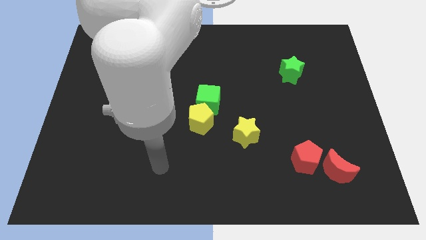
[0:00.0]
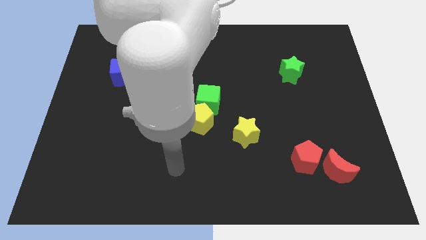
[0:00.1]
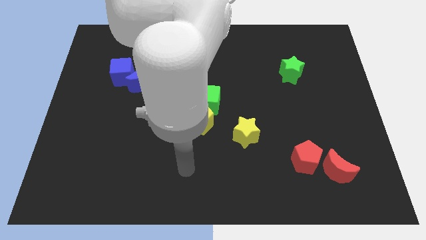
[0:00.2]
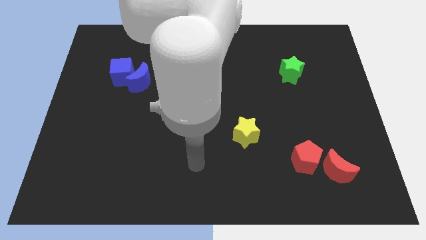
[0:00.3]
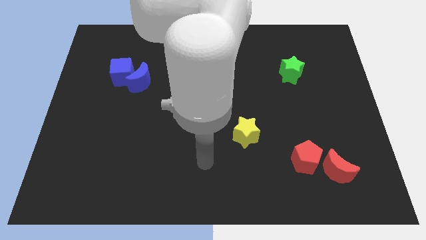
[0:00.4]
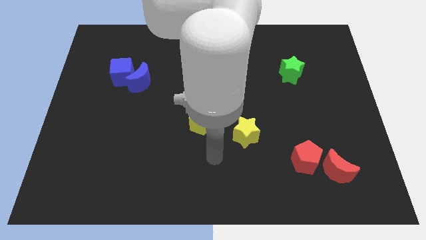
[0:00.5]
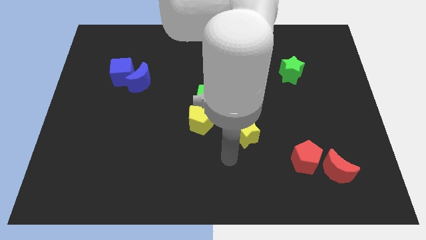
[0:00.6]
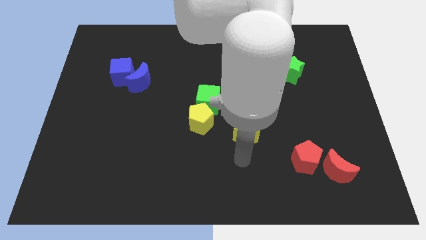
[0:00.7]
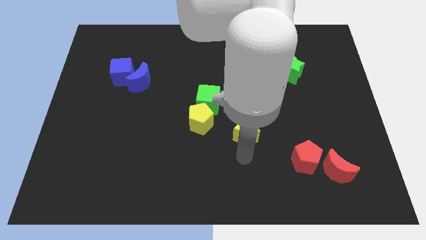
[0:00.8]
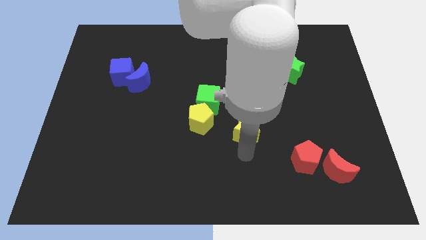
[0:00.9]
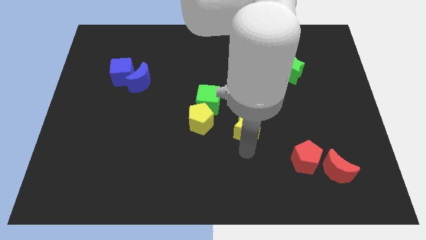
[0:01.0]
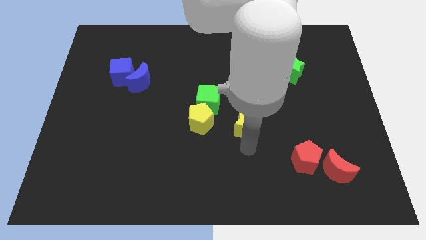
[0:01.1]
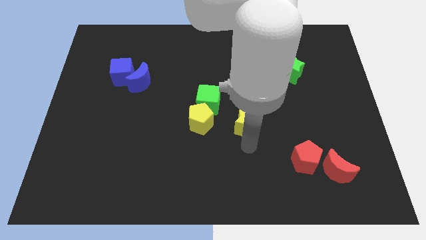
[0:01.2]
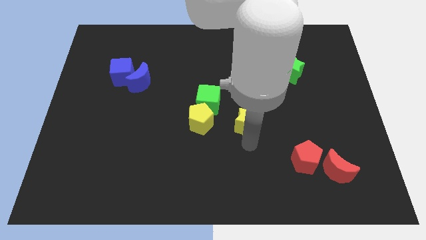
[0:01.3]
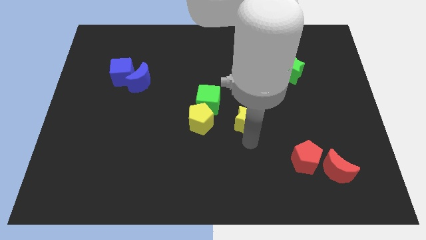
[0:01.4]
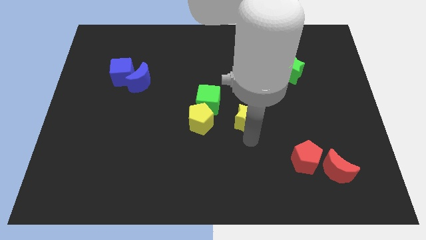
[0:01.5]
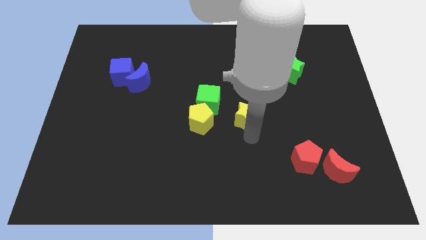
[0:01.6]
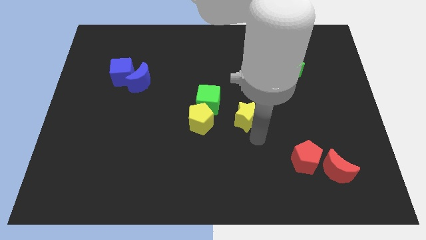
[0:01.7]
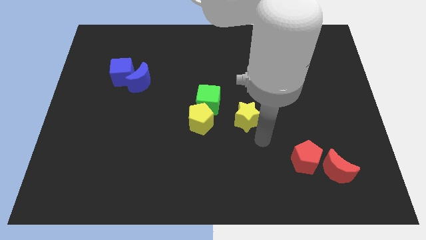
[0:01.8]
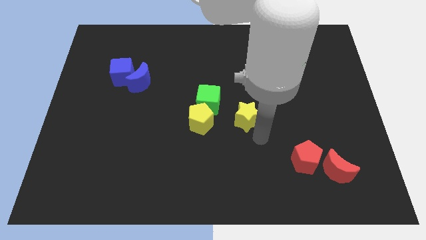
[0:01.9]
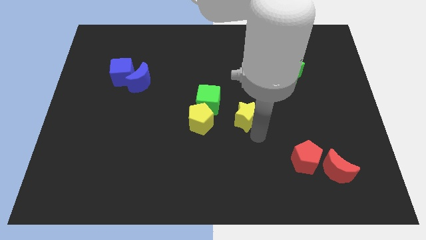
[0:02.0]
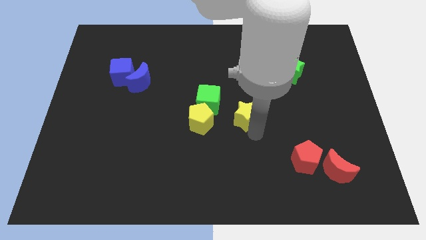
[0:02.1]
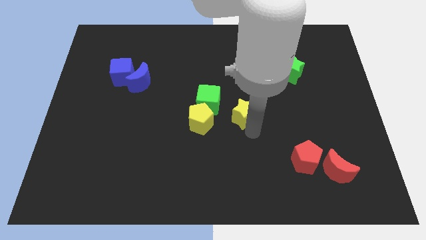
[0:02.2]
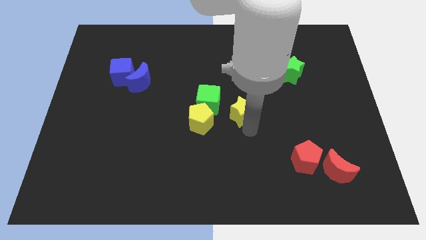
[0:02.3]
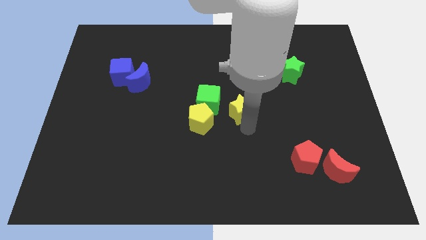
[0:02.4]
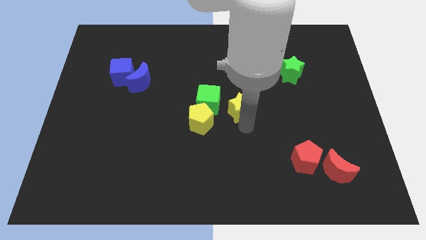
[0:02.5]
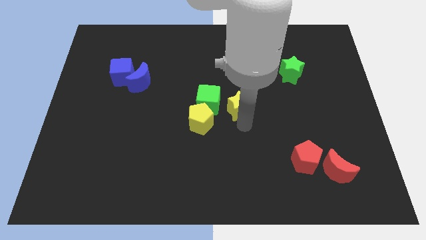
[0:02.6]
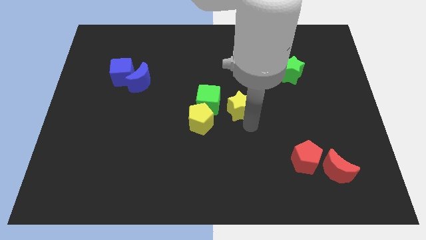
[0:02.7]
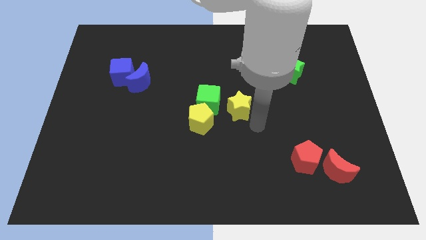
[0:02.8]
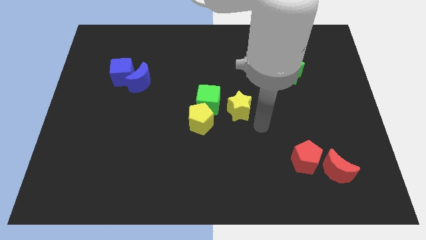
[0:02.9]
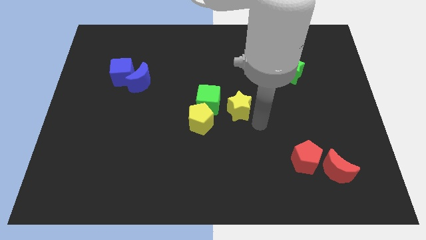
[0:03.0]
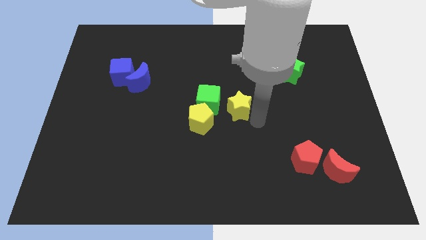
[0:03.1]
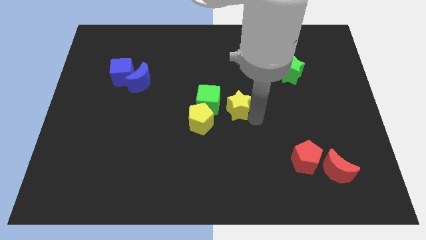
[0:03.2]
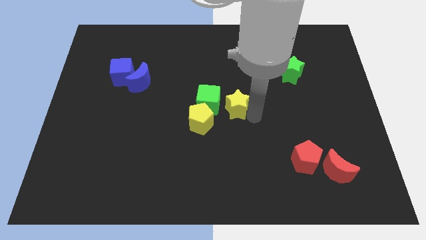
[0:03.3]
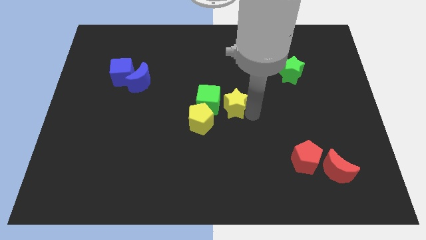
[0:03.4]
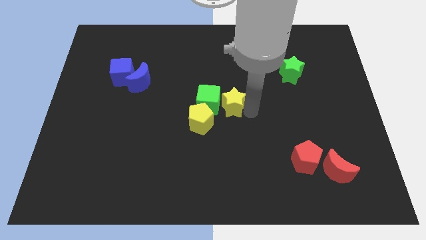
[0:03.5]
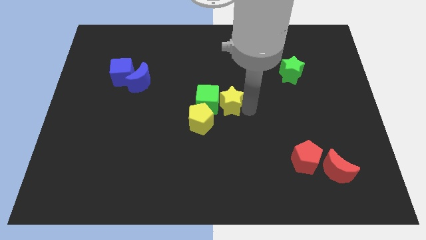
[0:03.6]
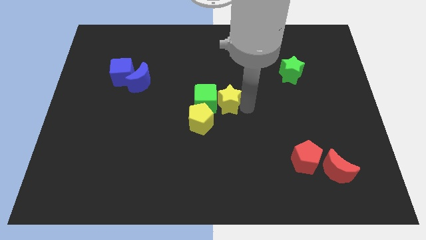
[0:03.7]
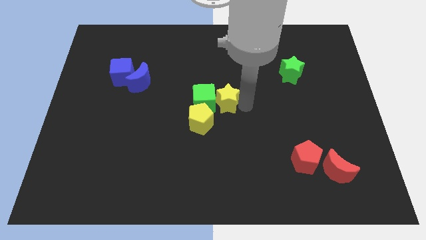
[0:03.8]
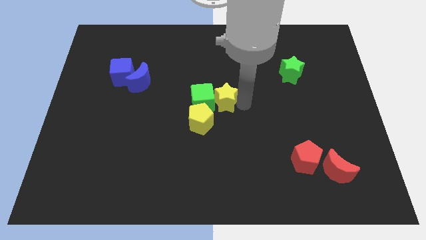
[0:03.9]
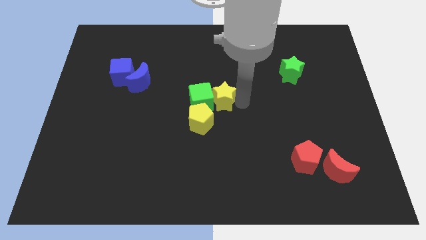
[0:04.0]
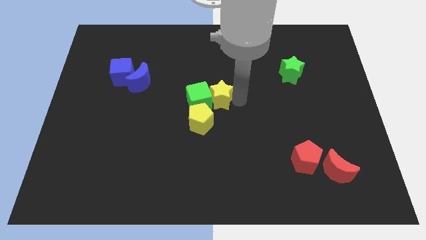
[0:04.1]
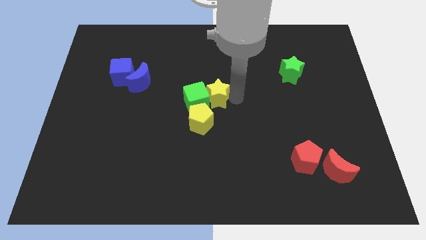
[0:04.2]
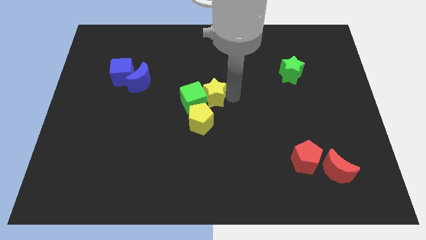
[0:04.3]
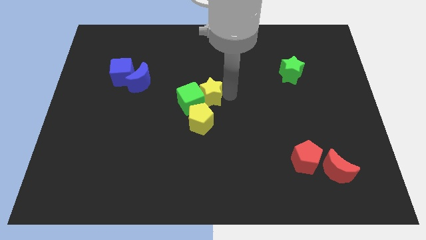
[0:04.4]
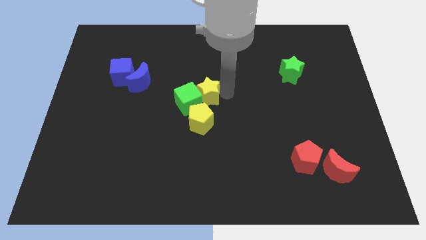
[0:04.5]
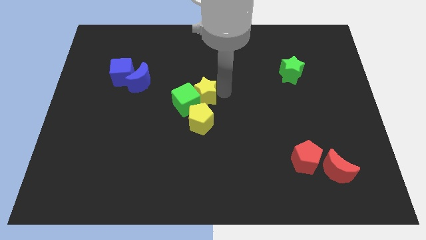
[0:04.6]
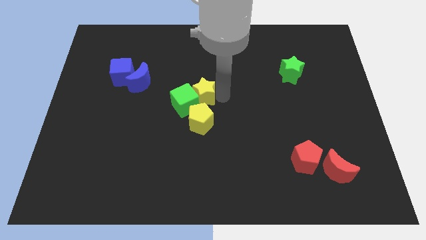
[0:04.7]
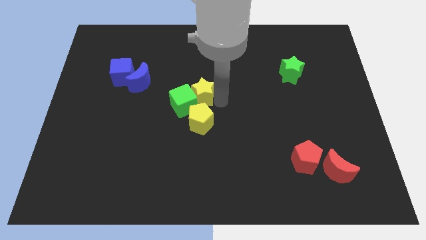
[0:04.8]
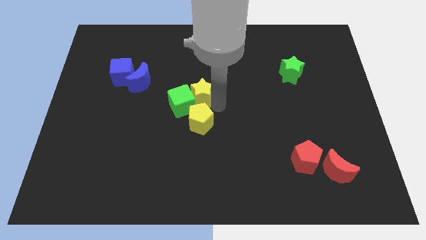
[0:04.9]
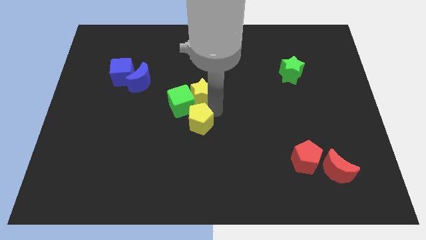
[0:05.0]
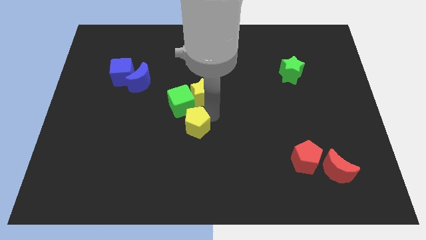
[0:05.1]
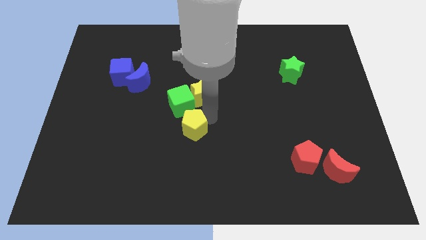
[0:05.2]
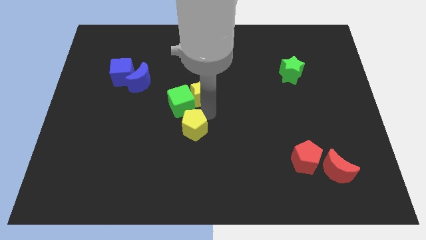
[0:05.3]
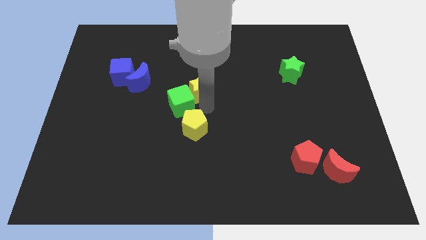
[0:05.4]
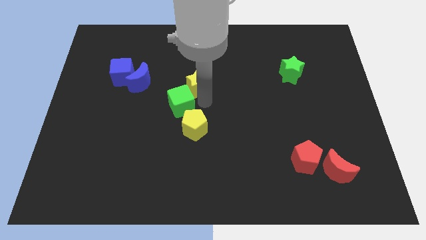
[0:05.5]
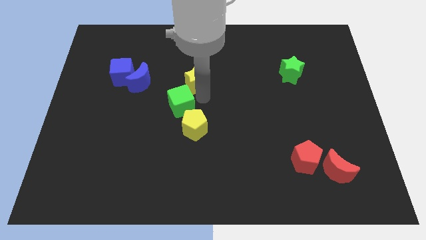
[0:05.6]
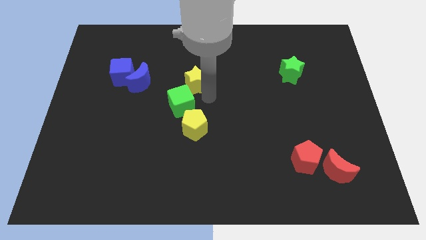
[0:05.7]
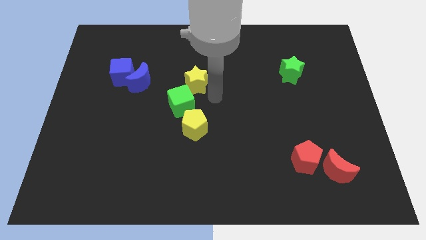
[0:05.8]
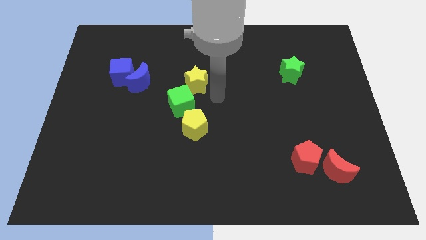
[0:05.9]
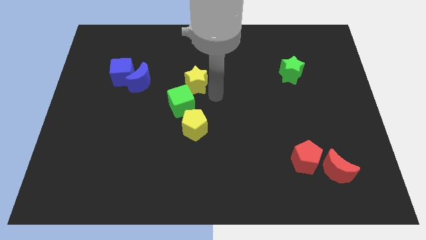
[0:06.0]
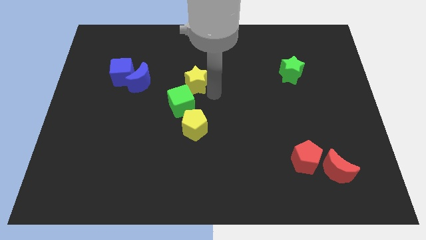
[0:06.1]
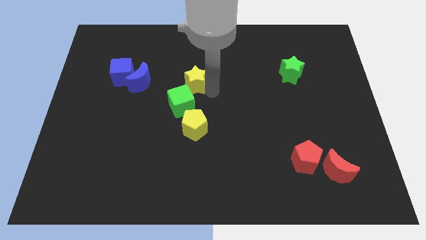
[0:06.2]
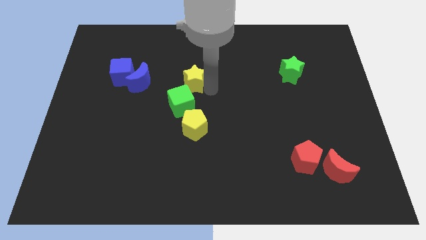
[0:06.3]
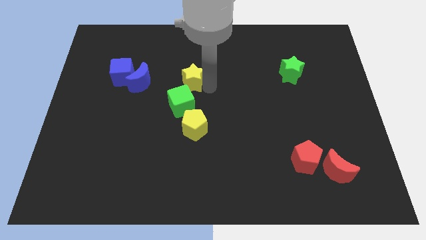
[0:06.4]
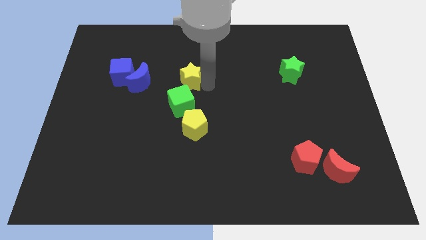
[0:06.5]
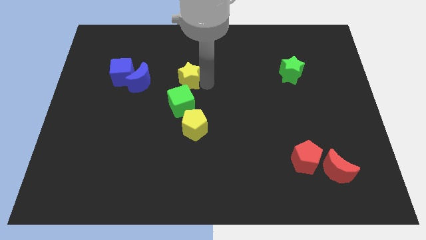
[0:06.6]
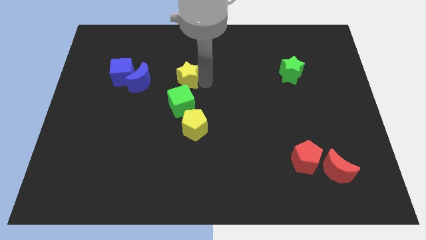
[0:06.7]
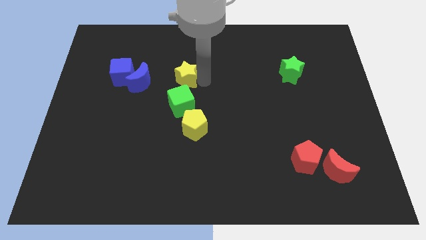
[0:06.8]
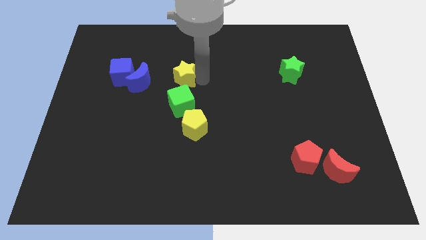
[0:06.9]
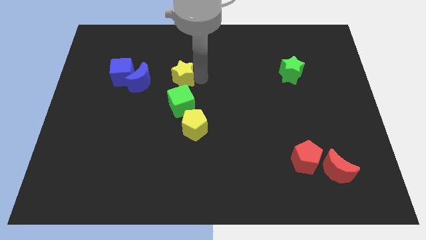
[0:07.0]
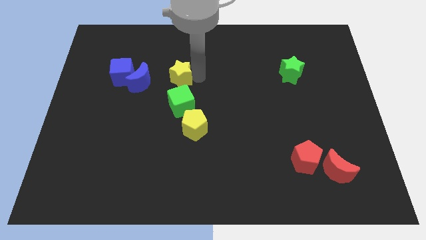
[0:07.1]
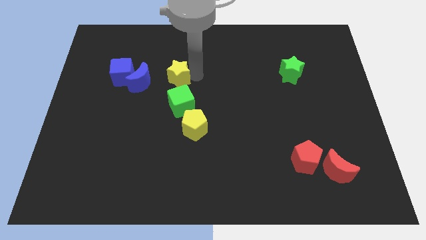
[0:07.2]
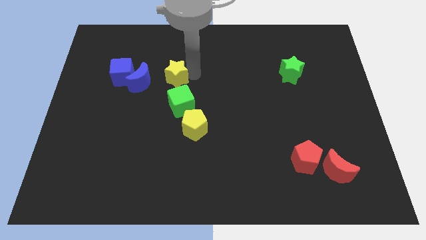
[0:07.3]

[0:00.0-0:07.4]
put the yellow star diagonally up and to the right of the blue moon

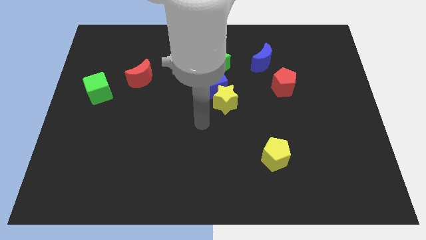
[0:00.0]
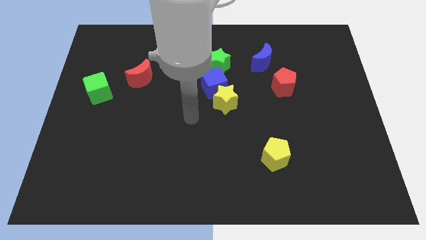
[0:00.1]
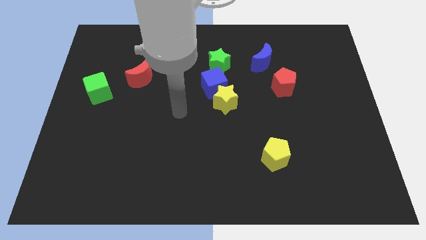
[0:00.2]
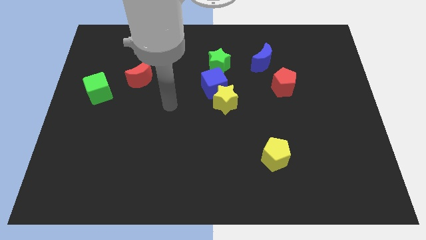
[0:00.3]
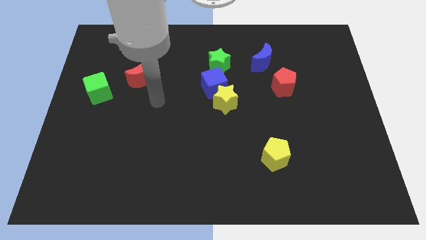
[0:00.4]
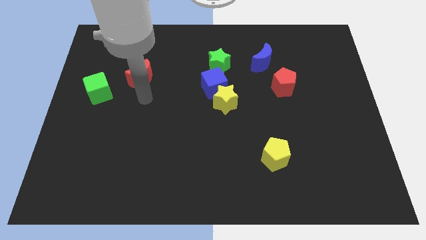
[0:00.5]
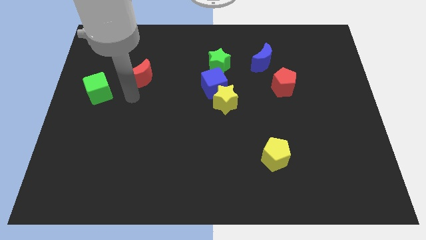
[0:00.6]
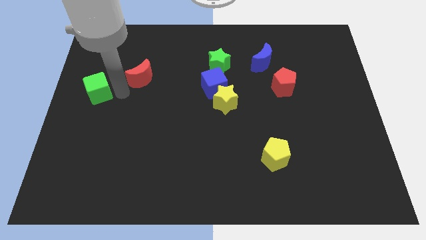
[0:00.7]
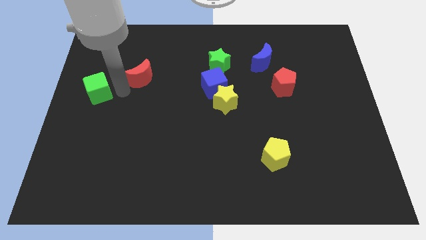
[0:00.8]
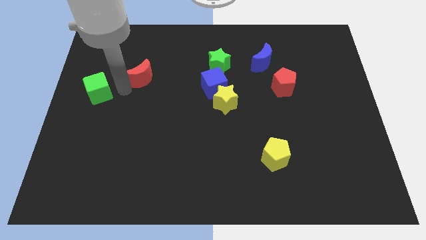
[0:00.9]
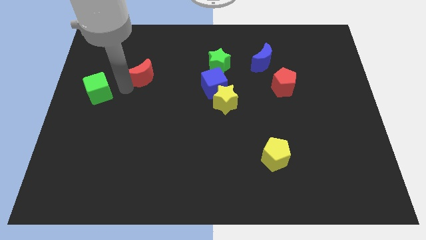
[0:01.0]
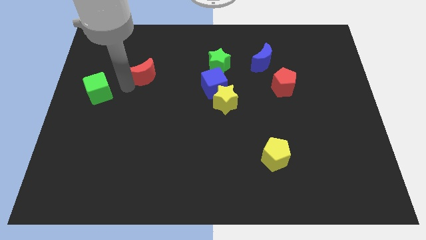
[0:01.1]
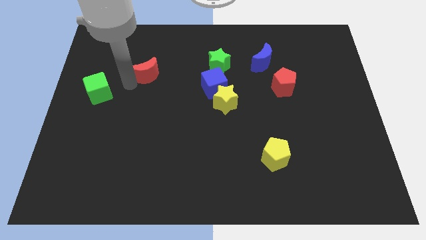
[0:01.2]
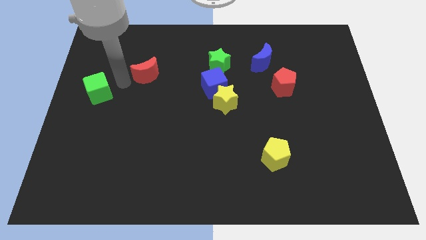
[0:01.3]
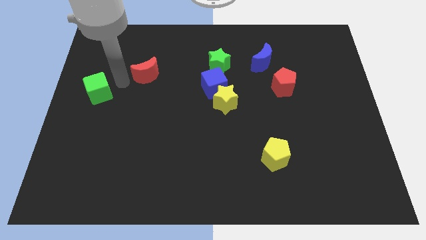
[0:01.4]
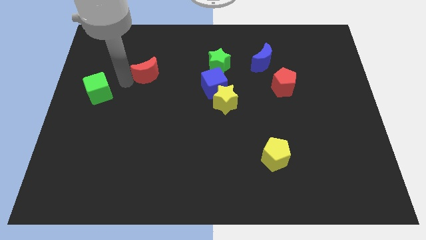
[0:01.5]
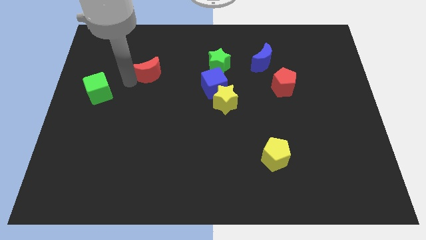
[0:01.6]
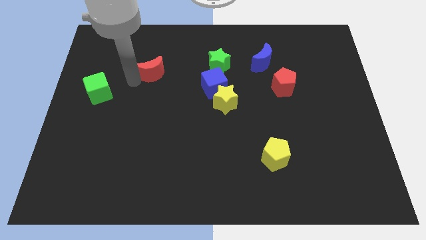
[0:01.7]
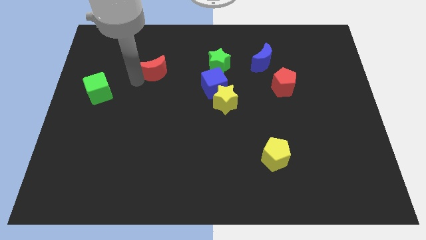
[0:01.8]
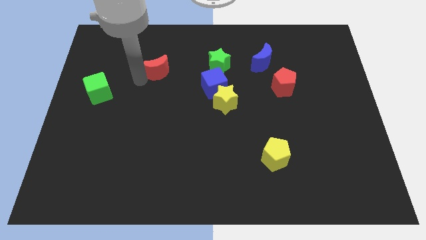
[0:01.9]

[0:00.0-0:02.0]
put the red moon just left of the green star
